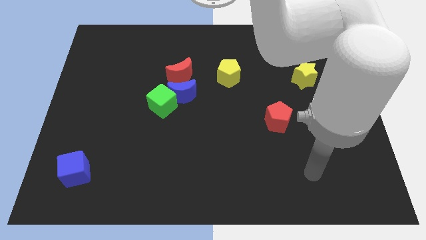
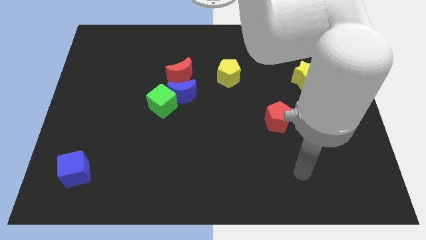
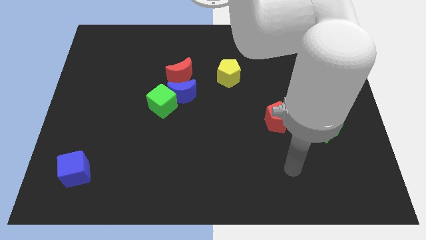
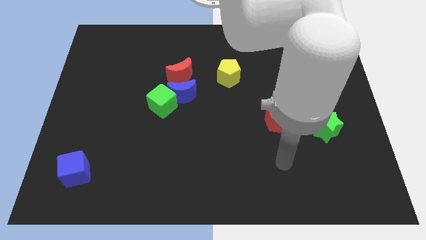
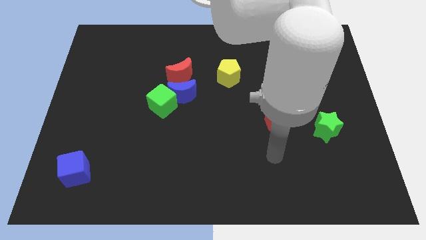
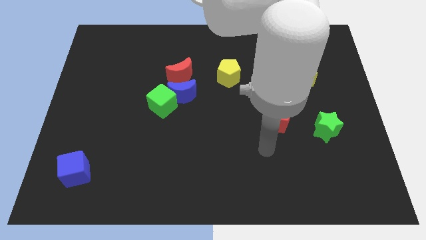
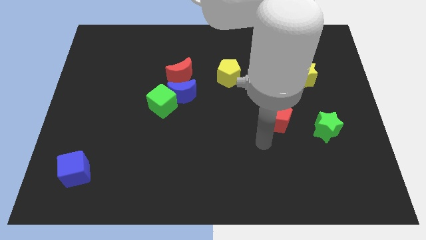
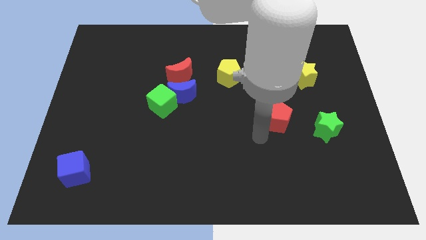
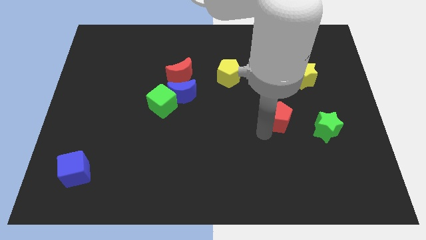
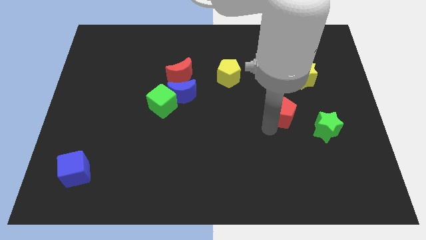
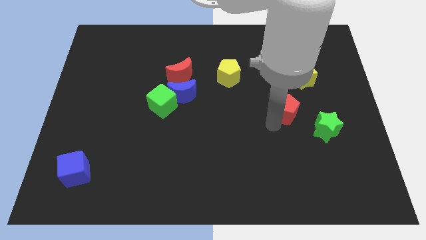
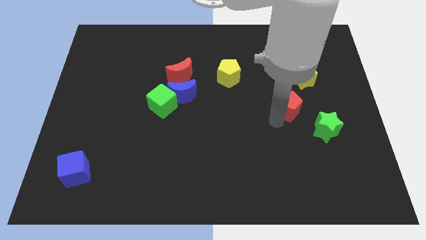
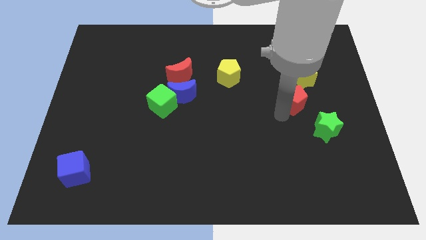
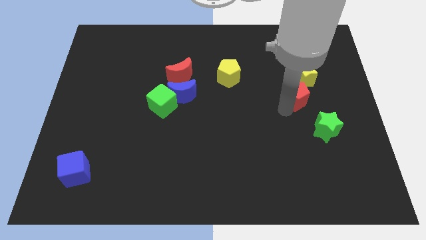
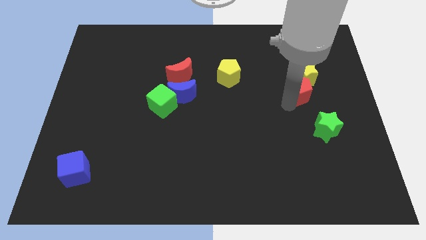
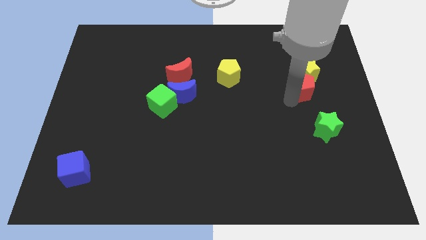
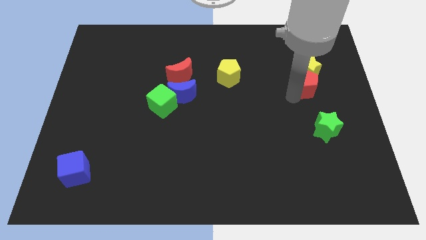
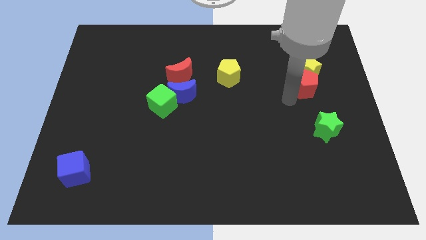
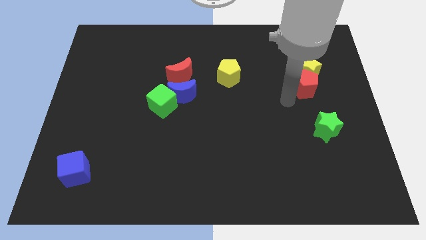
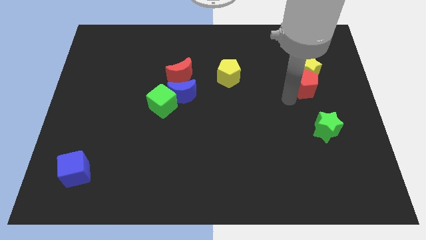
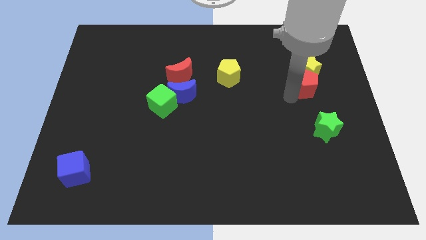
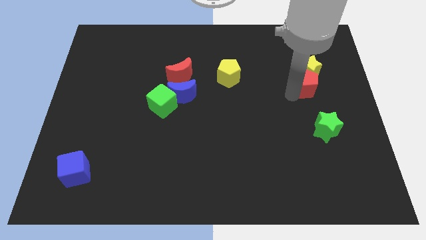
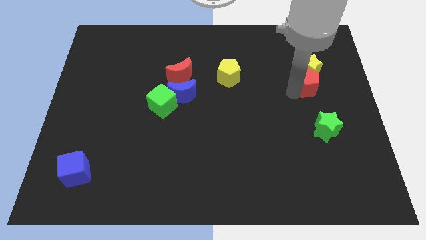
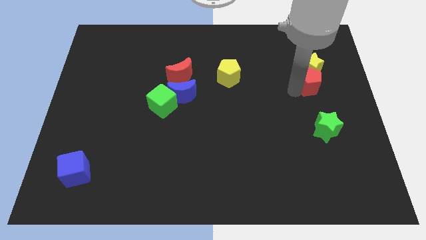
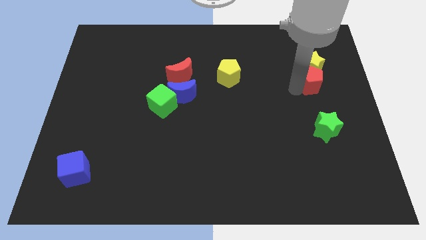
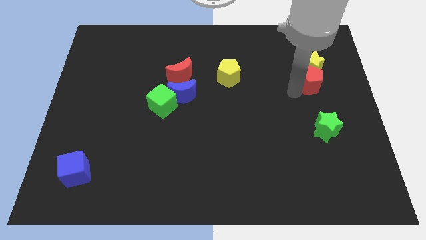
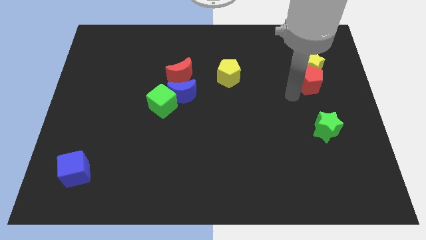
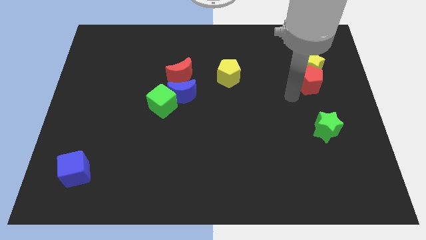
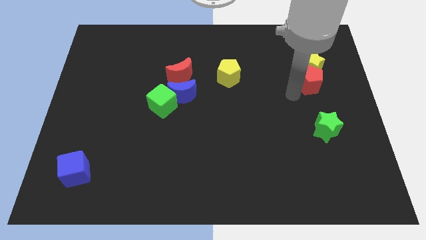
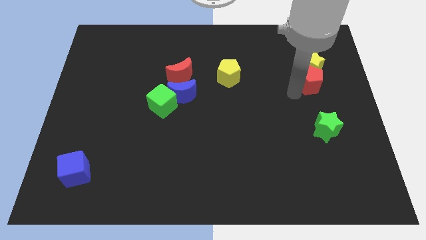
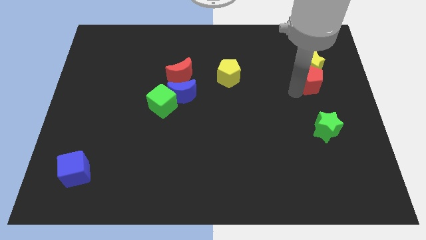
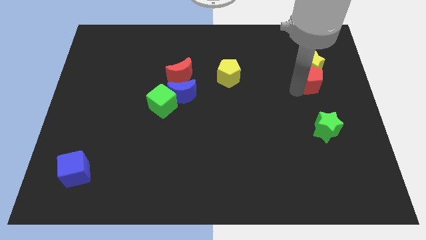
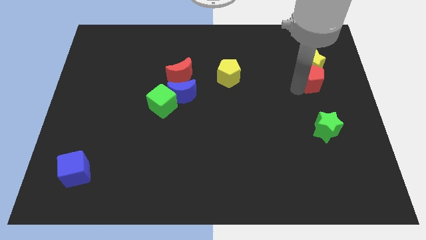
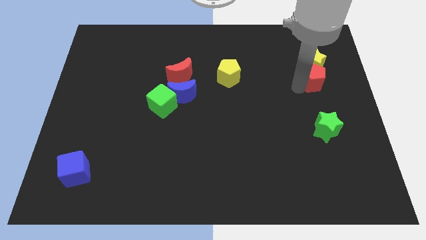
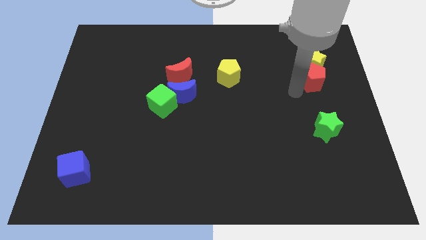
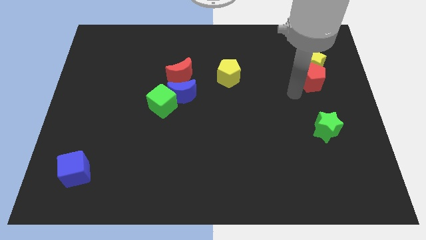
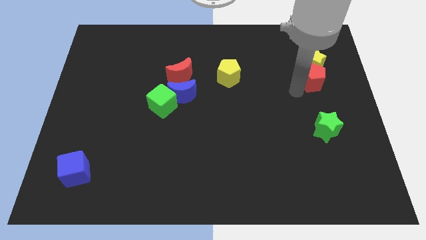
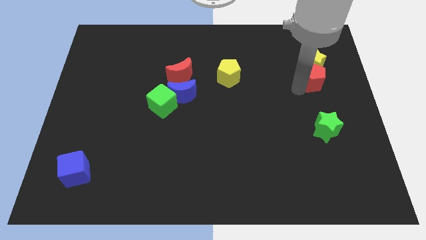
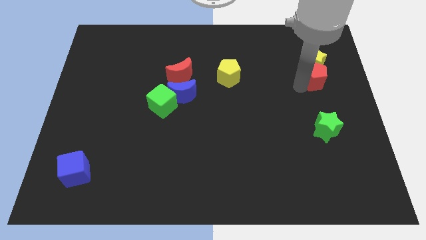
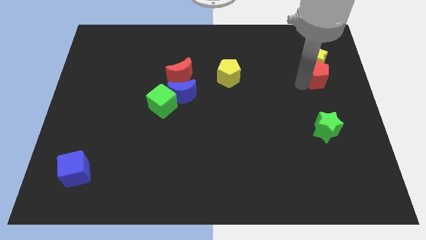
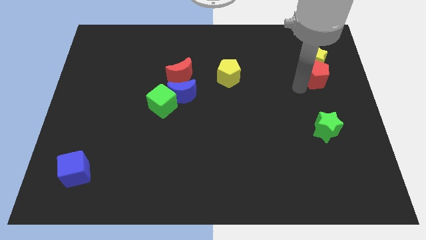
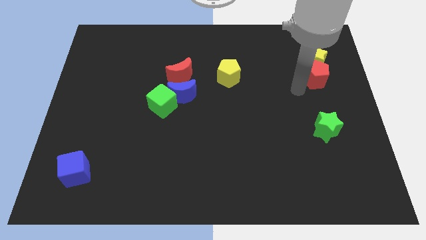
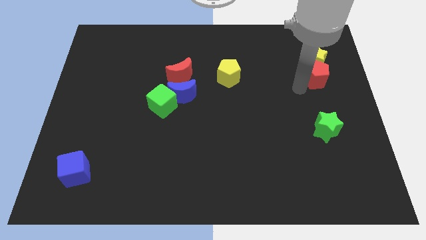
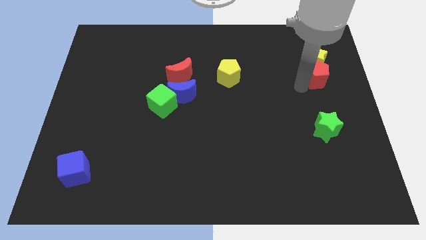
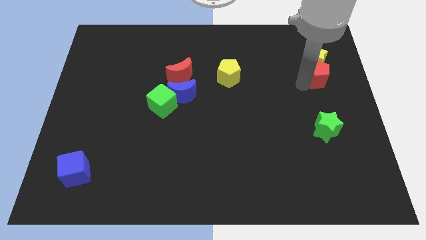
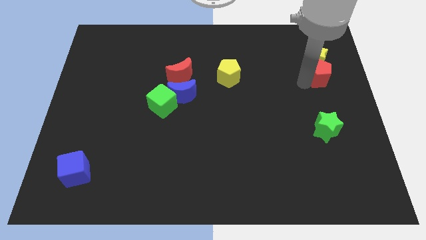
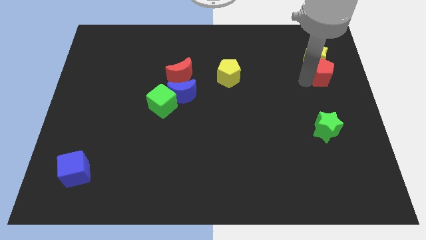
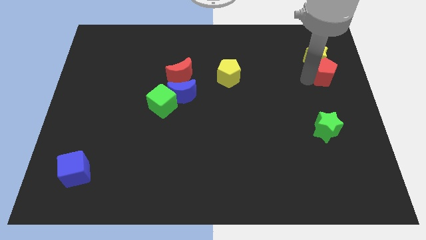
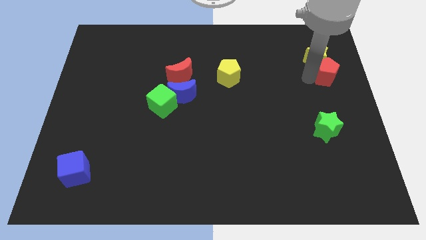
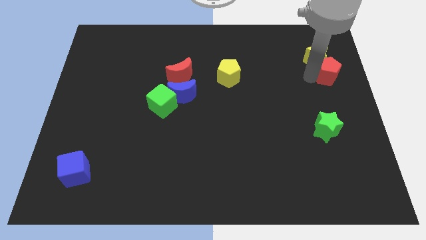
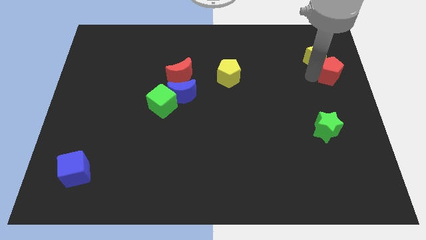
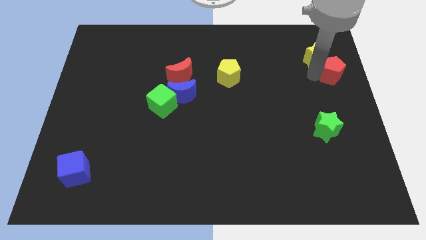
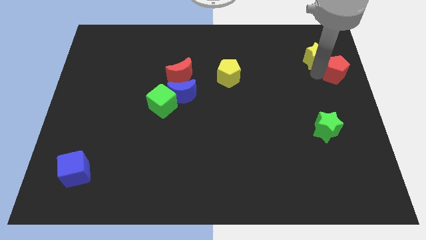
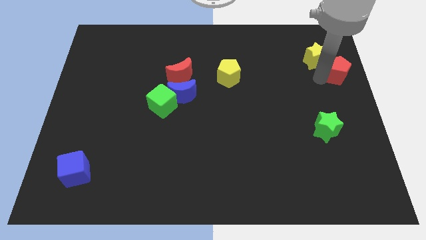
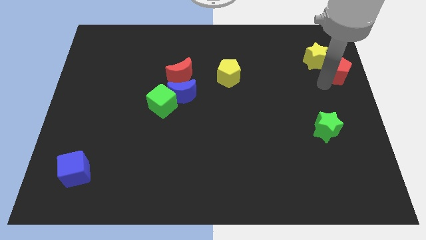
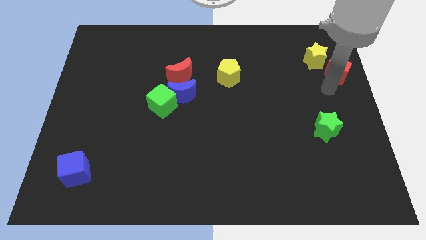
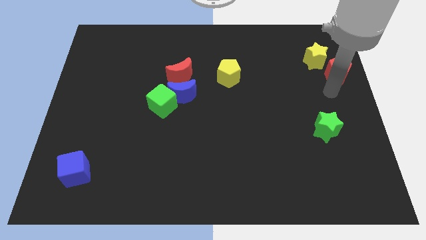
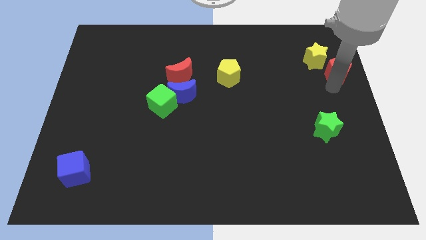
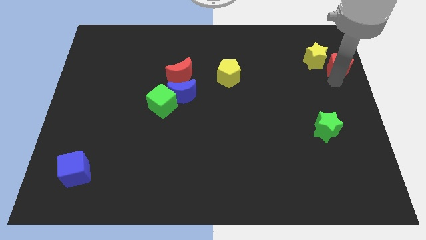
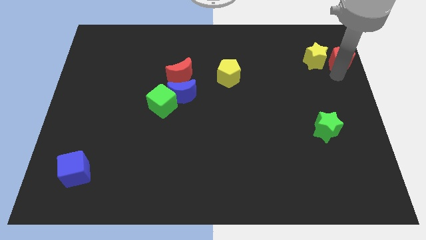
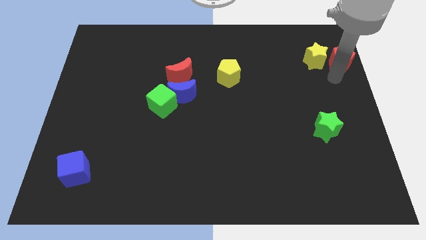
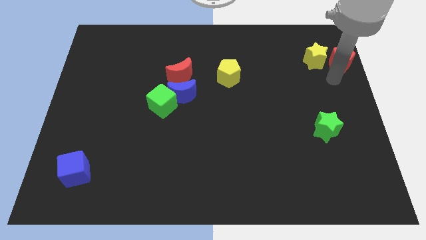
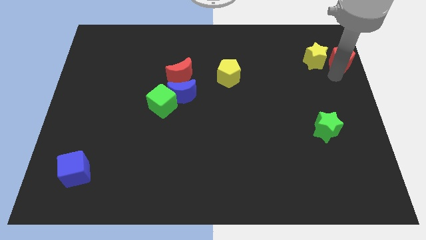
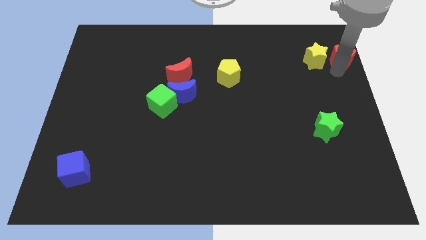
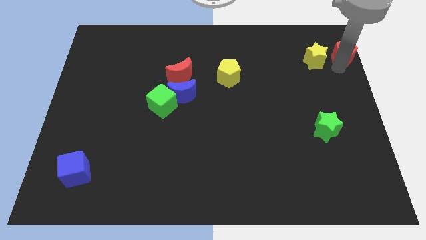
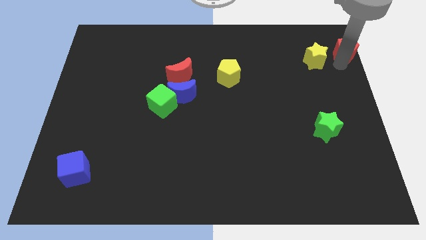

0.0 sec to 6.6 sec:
push the red pentagon to the top right of the board
